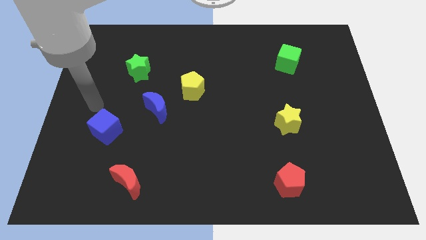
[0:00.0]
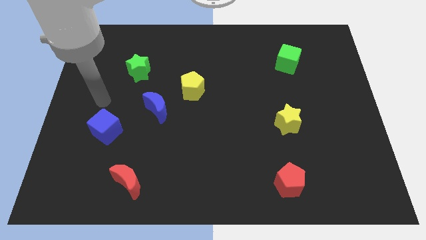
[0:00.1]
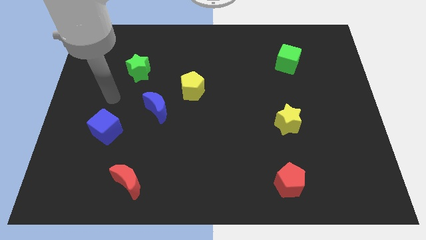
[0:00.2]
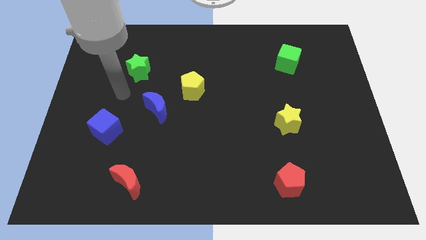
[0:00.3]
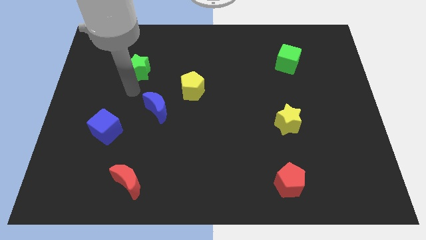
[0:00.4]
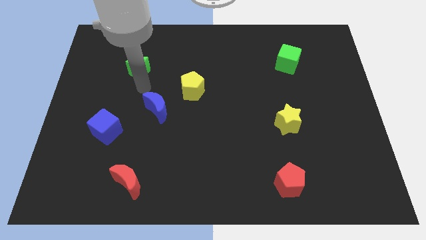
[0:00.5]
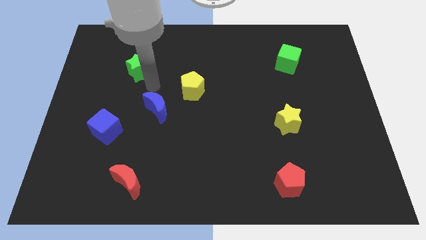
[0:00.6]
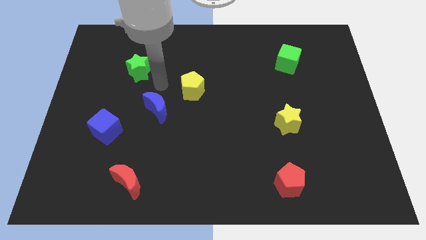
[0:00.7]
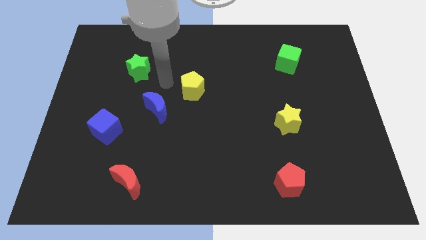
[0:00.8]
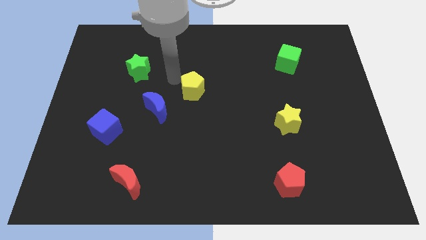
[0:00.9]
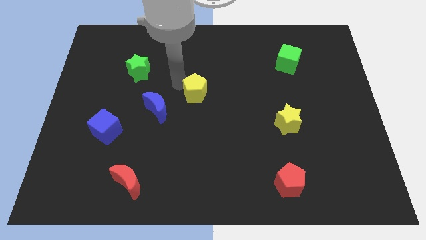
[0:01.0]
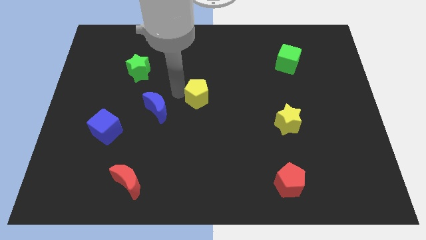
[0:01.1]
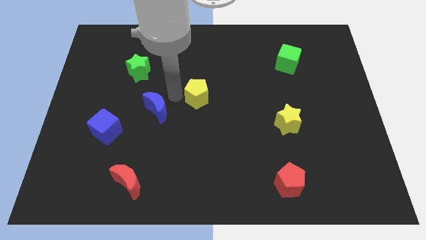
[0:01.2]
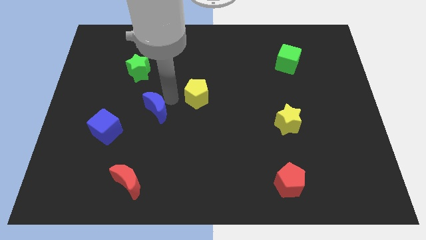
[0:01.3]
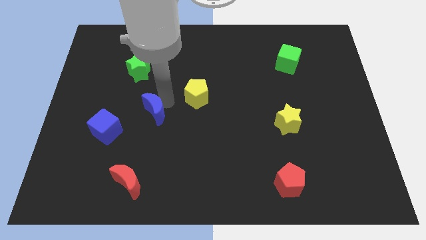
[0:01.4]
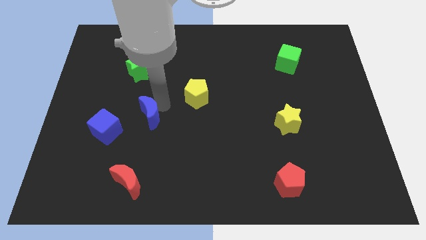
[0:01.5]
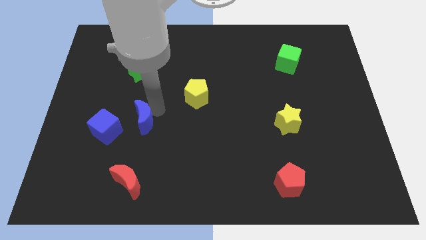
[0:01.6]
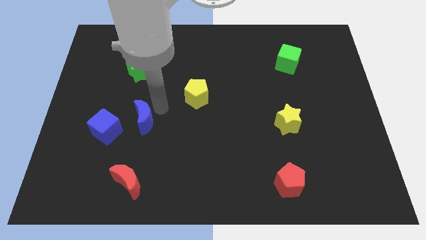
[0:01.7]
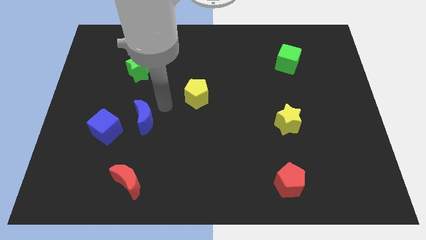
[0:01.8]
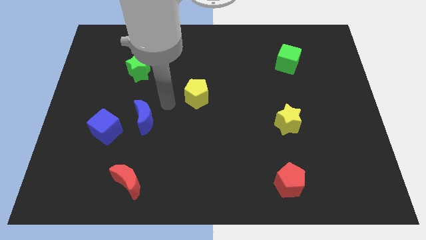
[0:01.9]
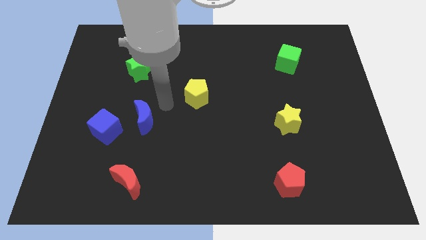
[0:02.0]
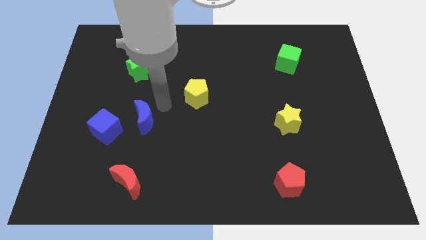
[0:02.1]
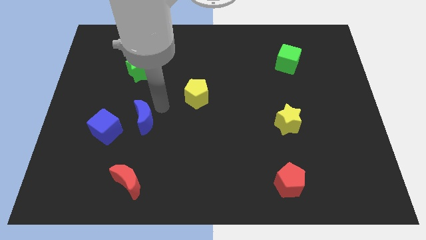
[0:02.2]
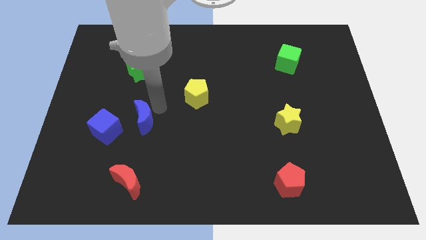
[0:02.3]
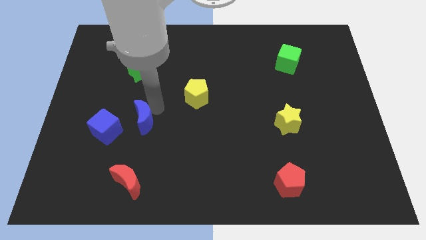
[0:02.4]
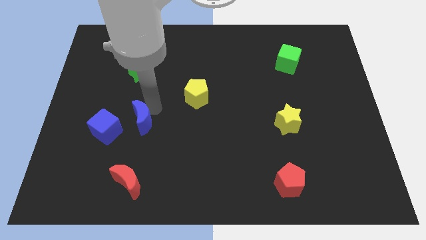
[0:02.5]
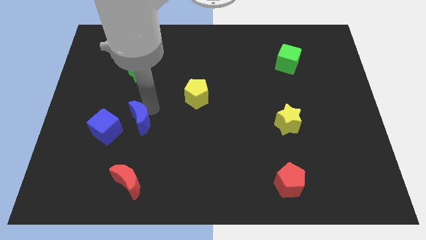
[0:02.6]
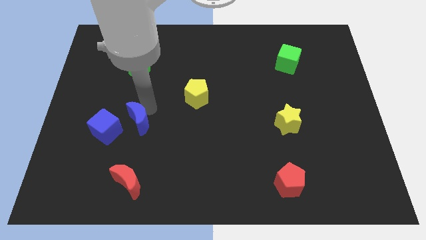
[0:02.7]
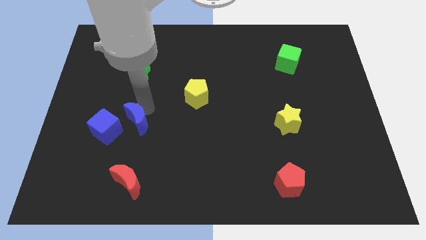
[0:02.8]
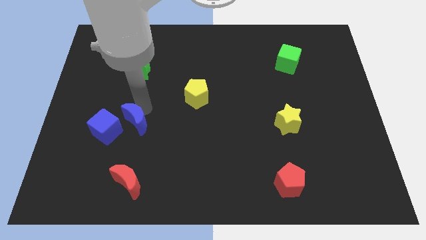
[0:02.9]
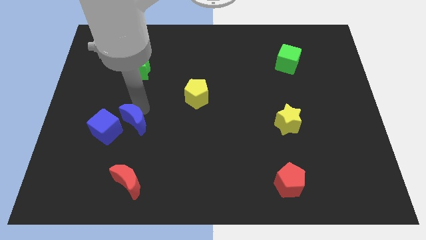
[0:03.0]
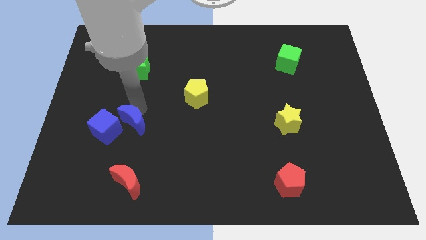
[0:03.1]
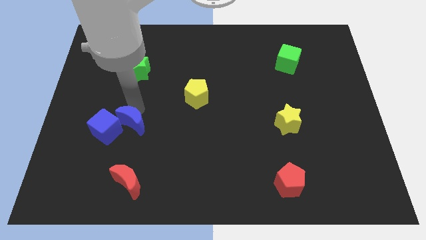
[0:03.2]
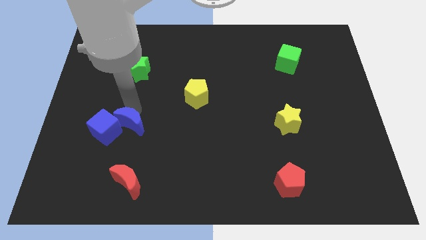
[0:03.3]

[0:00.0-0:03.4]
slightly slide the blue moon down and then left

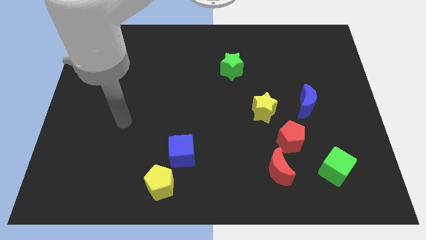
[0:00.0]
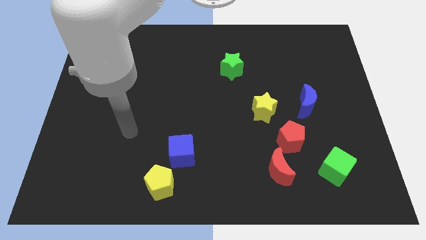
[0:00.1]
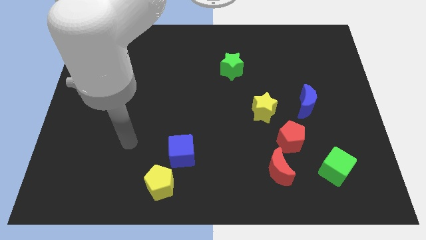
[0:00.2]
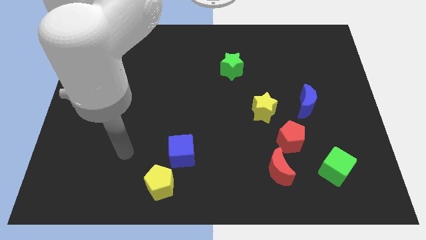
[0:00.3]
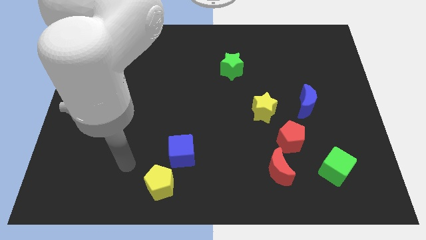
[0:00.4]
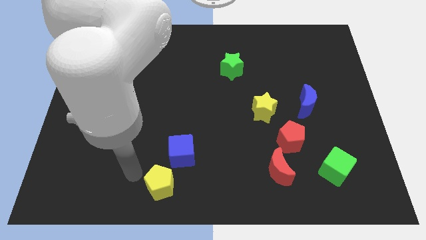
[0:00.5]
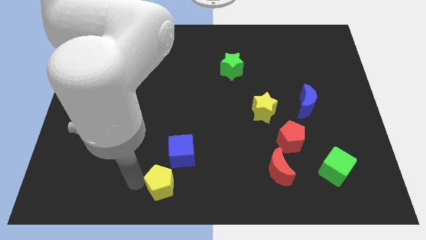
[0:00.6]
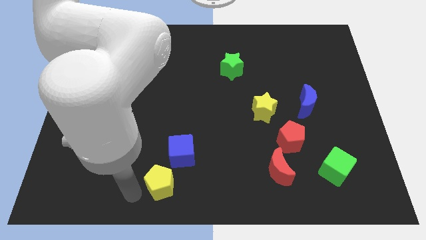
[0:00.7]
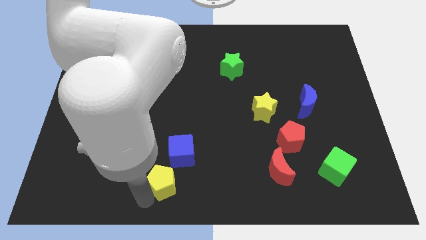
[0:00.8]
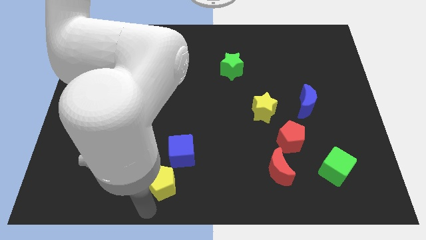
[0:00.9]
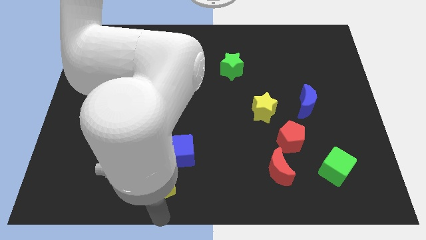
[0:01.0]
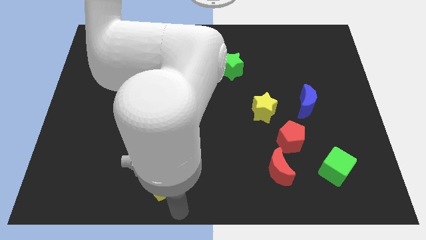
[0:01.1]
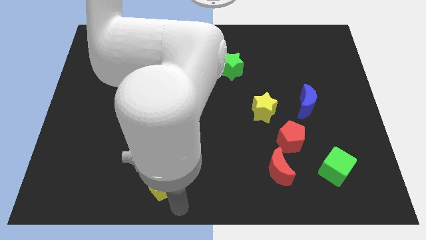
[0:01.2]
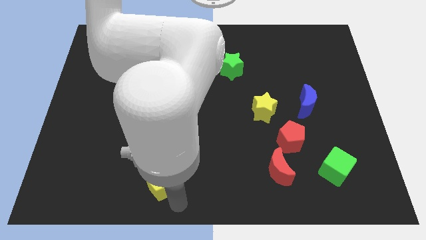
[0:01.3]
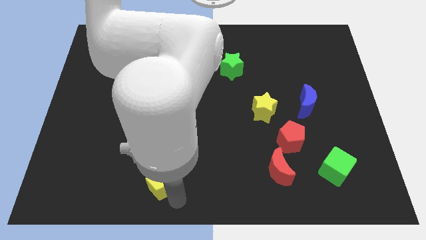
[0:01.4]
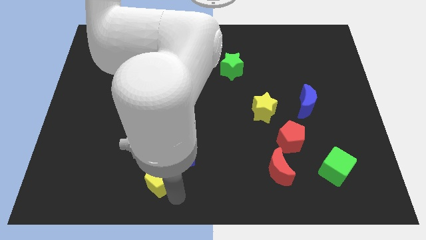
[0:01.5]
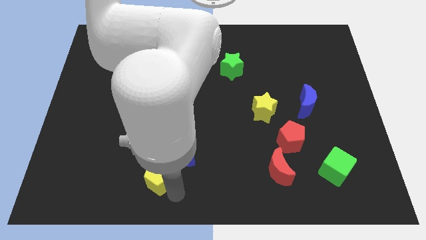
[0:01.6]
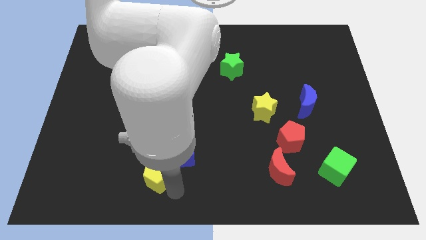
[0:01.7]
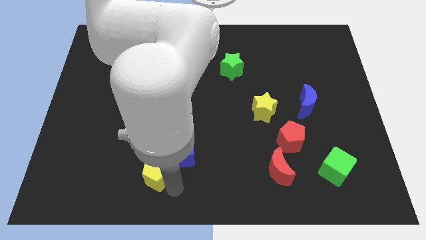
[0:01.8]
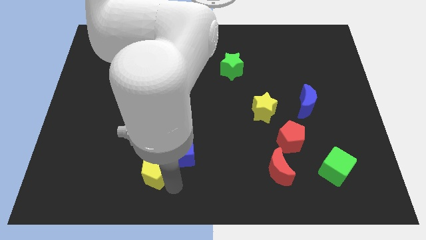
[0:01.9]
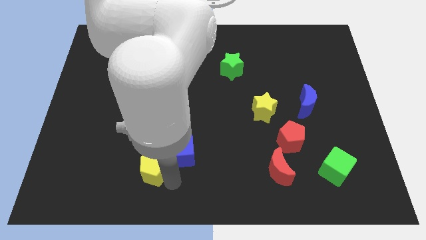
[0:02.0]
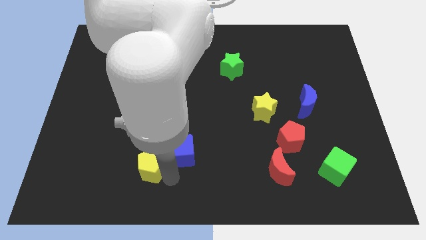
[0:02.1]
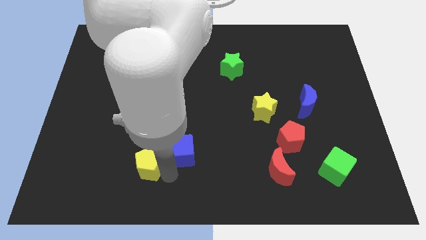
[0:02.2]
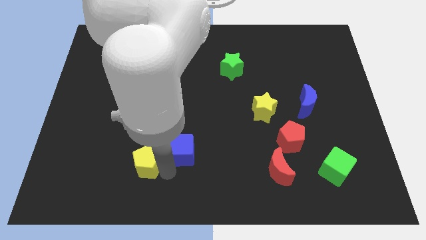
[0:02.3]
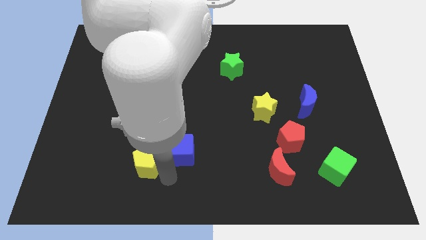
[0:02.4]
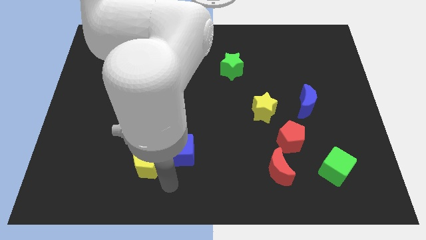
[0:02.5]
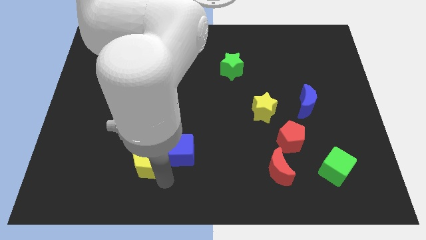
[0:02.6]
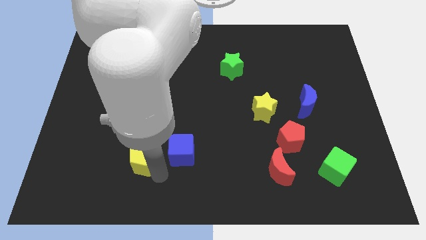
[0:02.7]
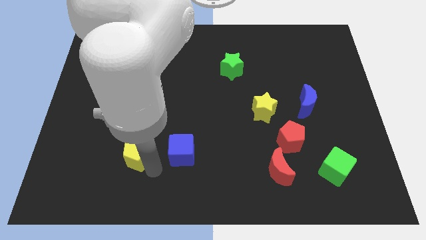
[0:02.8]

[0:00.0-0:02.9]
slightly slide the yellow pentagon up and then to the left

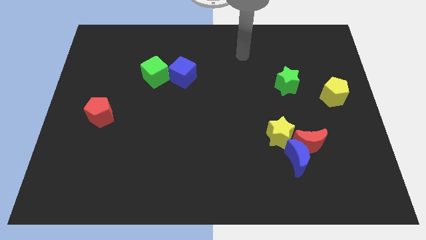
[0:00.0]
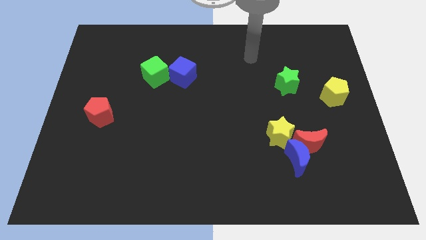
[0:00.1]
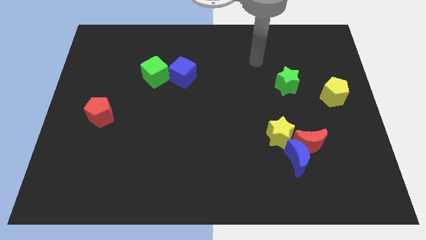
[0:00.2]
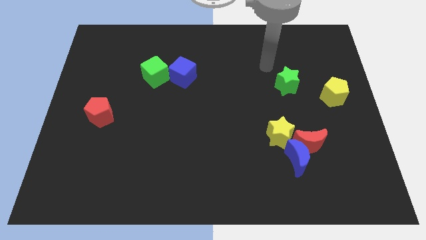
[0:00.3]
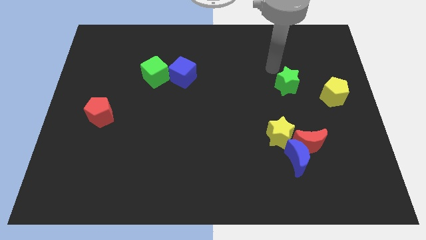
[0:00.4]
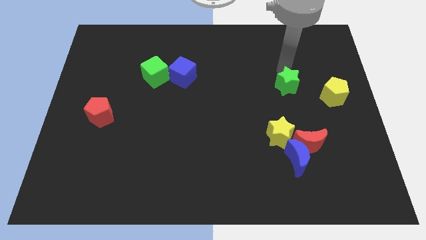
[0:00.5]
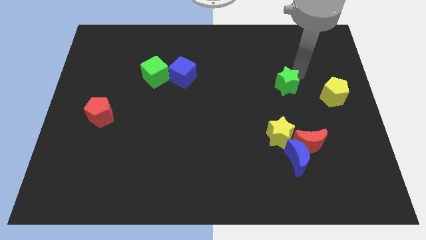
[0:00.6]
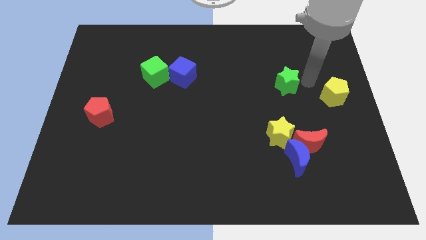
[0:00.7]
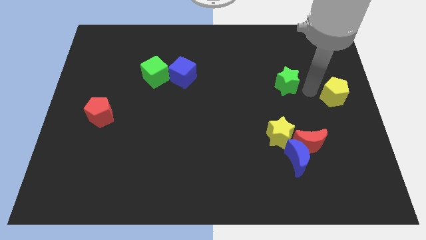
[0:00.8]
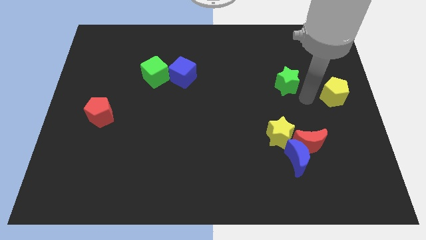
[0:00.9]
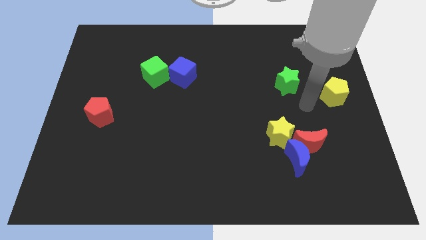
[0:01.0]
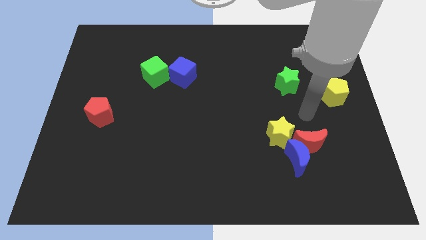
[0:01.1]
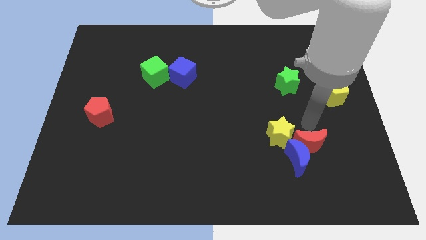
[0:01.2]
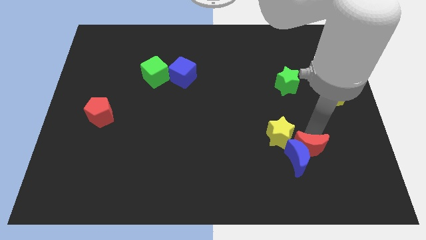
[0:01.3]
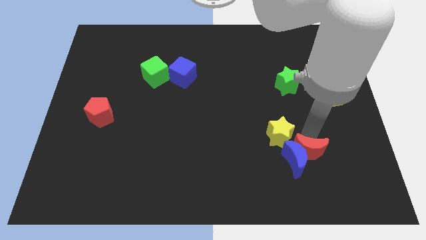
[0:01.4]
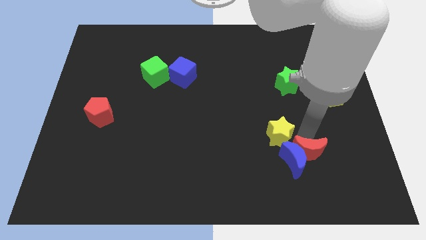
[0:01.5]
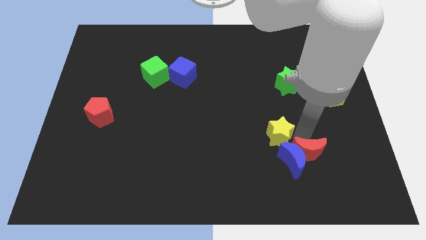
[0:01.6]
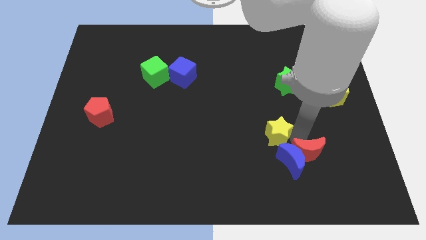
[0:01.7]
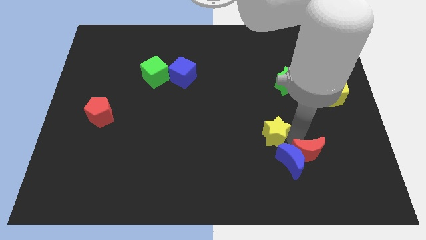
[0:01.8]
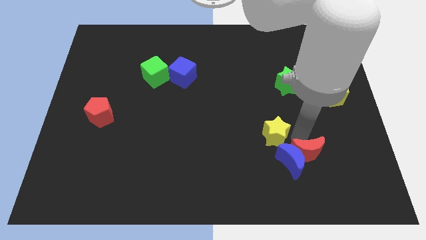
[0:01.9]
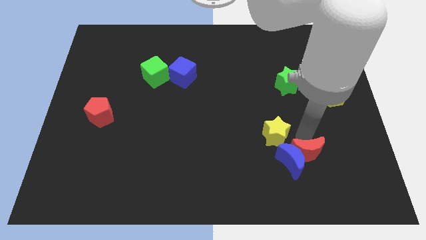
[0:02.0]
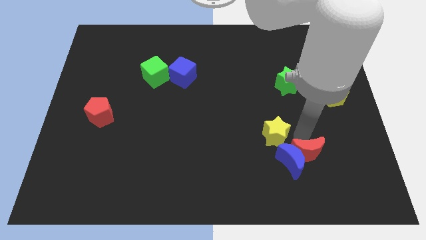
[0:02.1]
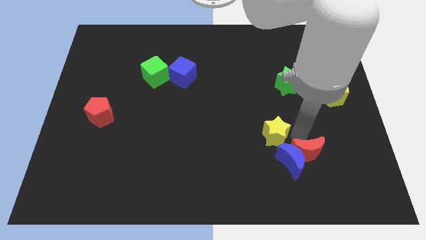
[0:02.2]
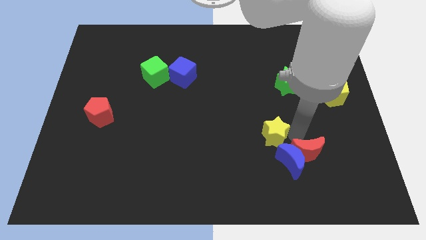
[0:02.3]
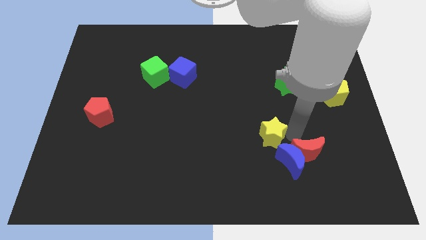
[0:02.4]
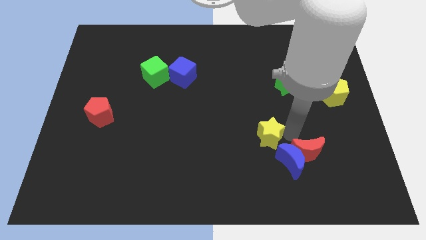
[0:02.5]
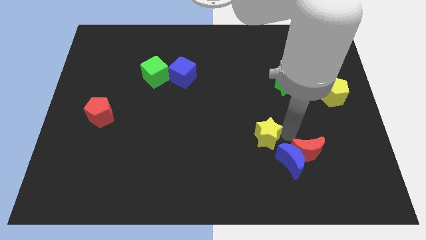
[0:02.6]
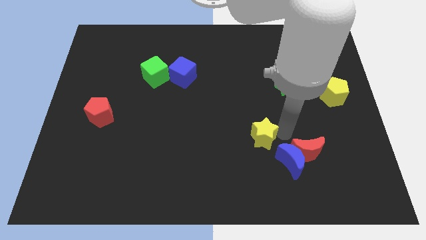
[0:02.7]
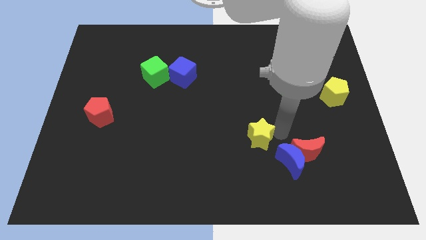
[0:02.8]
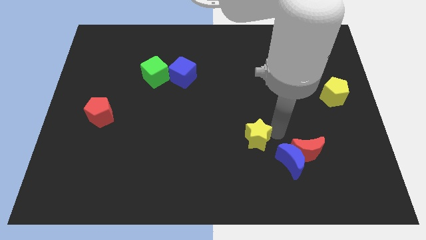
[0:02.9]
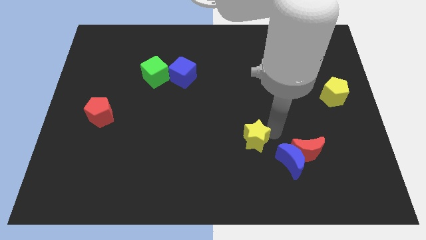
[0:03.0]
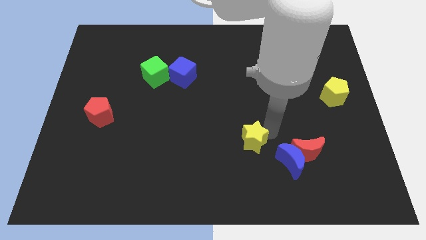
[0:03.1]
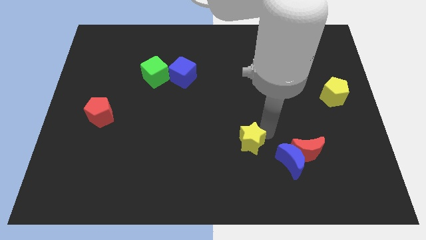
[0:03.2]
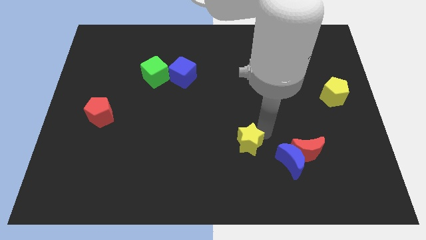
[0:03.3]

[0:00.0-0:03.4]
slightly push the yellow star to the left
